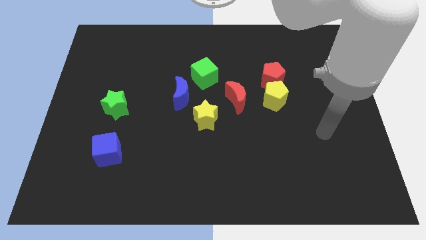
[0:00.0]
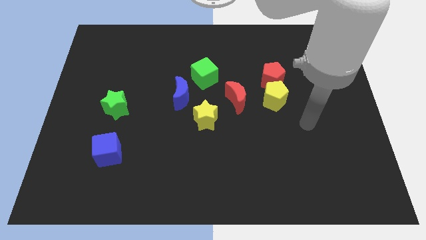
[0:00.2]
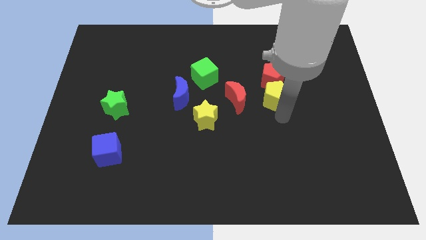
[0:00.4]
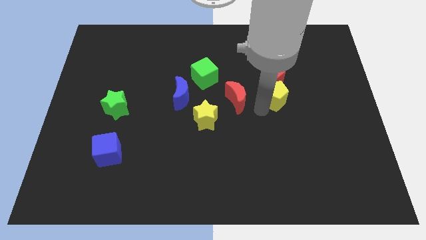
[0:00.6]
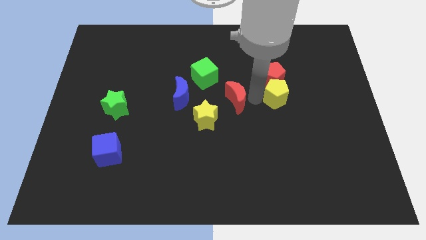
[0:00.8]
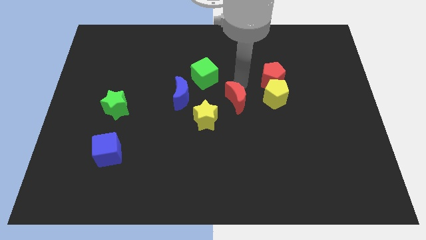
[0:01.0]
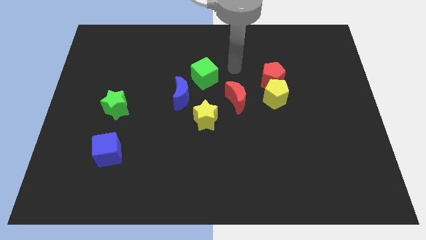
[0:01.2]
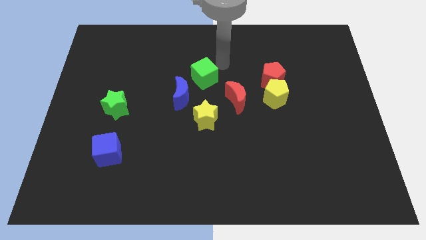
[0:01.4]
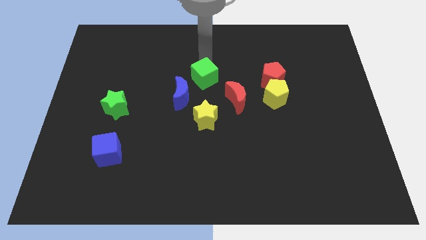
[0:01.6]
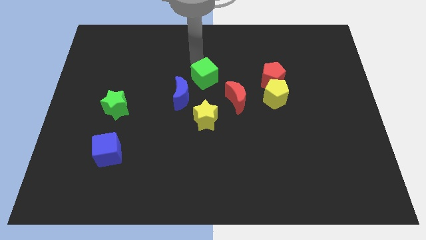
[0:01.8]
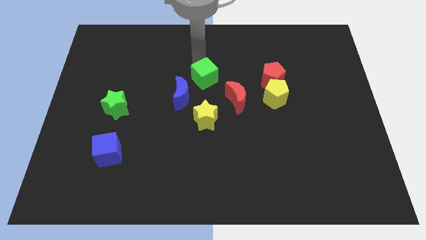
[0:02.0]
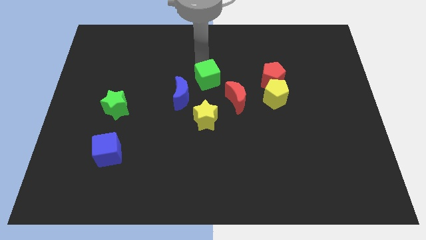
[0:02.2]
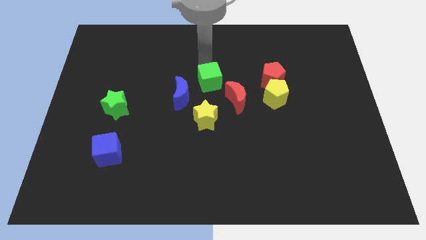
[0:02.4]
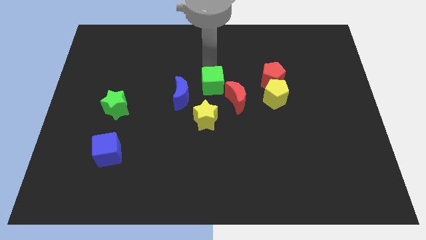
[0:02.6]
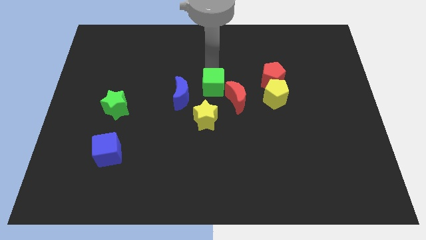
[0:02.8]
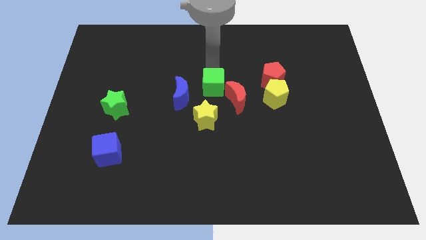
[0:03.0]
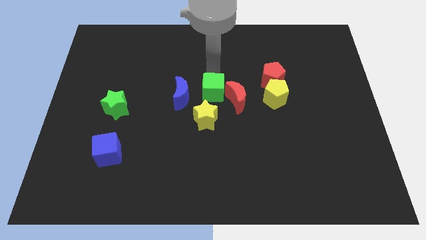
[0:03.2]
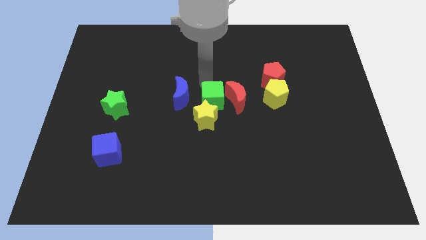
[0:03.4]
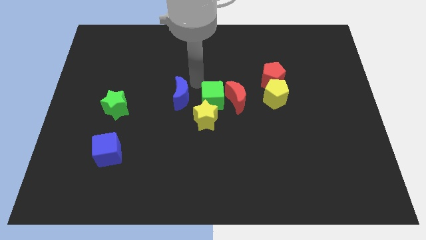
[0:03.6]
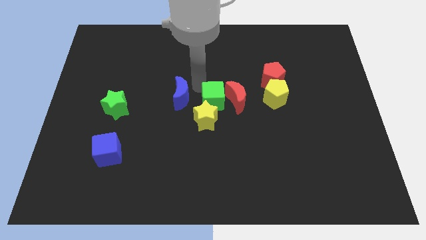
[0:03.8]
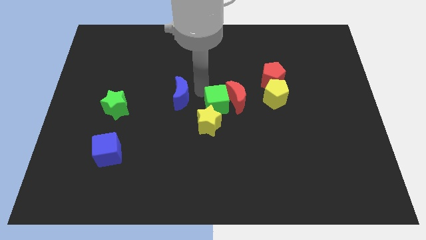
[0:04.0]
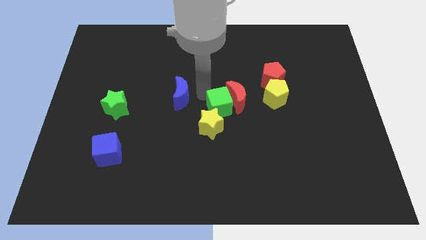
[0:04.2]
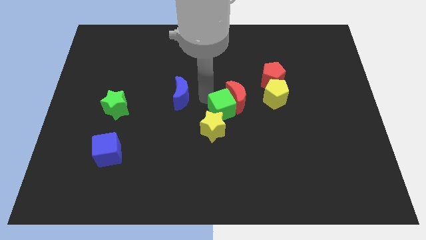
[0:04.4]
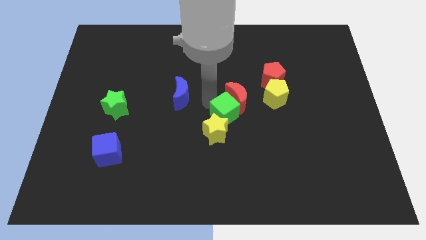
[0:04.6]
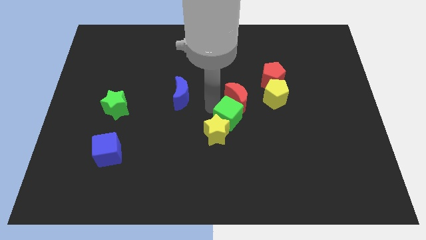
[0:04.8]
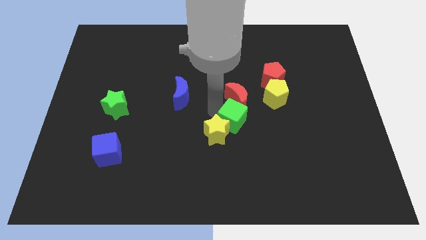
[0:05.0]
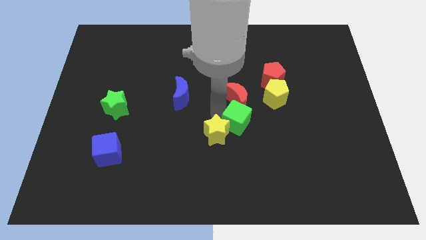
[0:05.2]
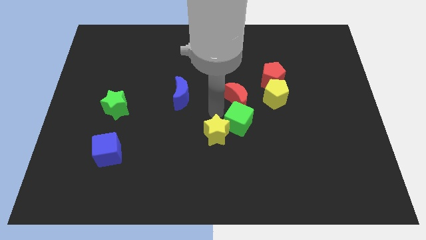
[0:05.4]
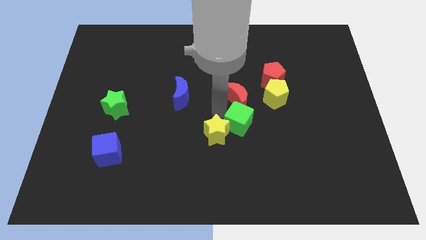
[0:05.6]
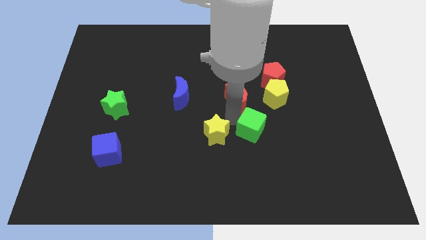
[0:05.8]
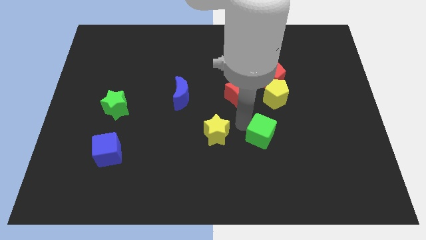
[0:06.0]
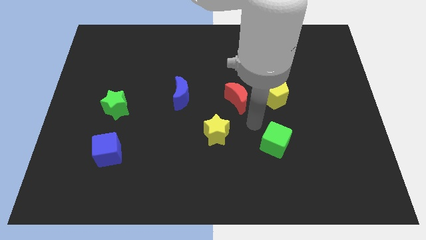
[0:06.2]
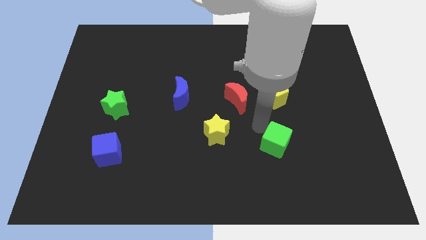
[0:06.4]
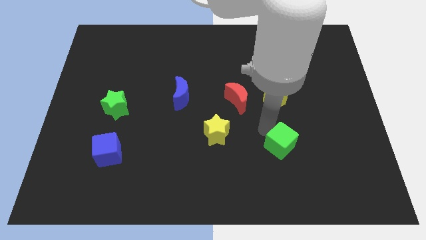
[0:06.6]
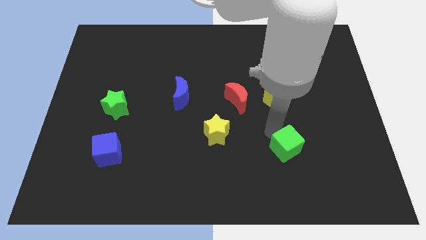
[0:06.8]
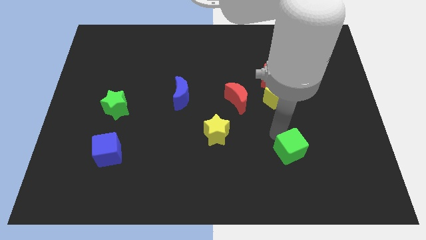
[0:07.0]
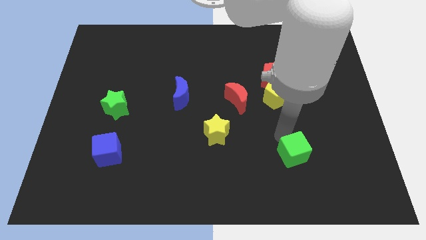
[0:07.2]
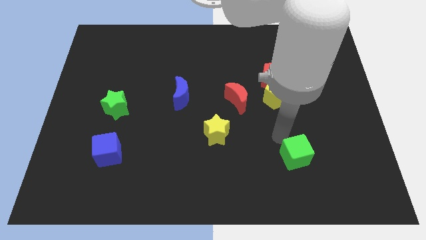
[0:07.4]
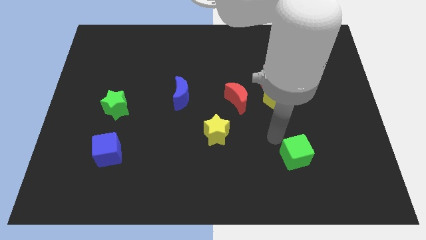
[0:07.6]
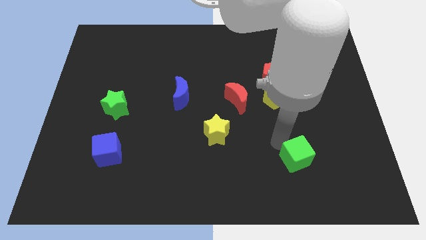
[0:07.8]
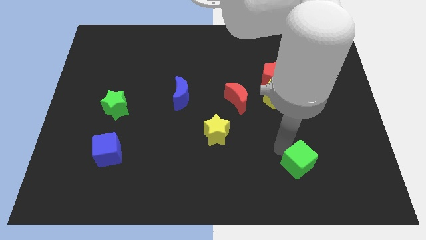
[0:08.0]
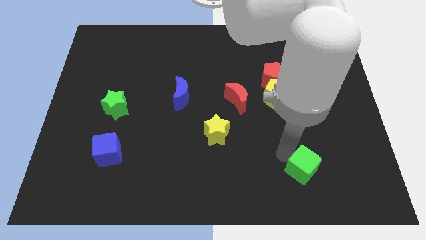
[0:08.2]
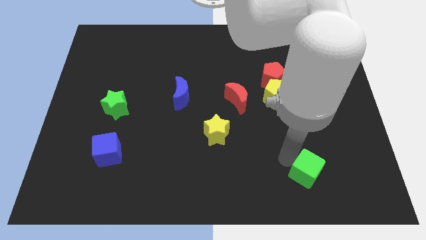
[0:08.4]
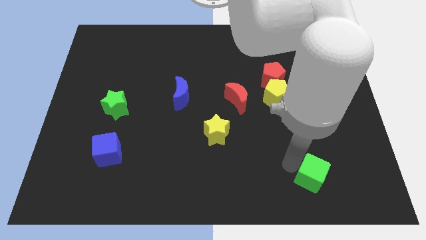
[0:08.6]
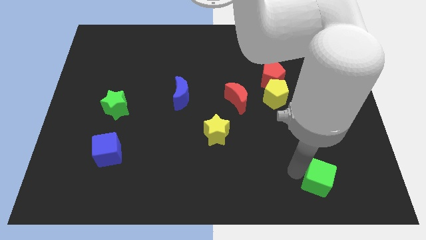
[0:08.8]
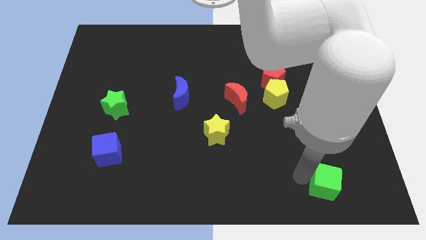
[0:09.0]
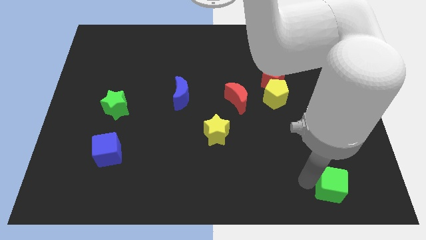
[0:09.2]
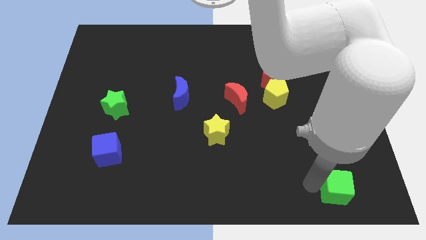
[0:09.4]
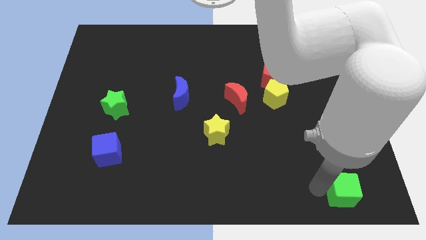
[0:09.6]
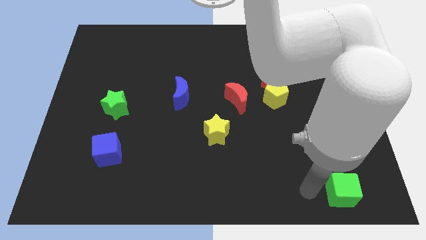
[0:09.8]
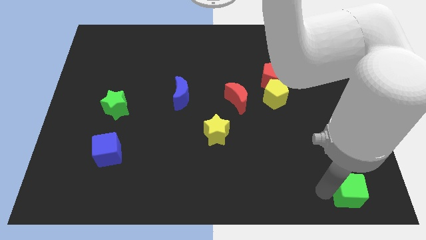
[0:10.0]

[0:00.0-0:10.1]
put the green cube to the bottom right

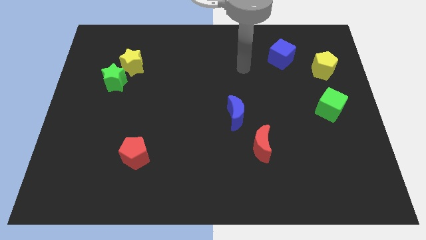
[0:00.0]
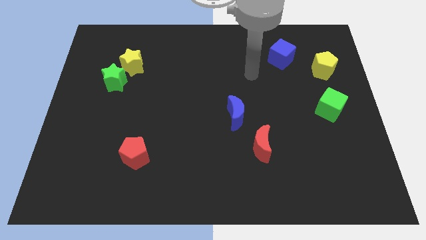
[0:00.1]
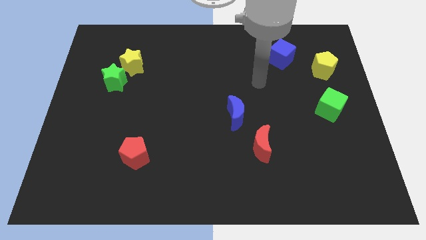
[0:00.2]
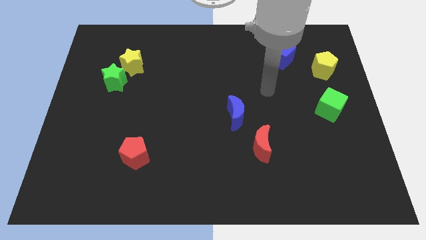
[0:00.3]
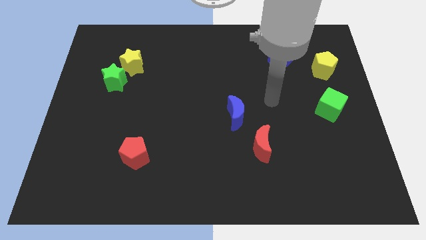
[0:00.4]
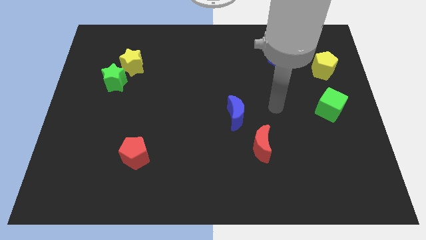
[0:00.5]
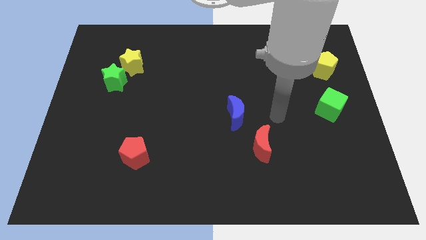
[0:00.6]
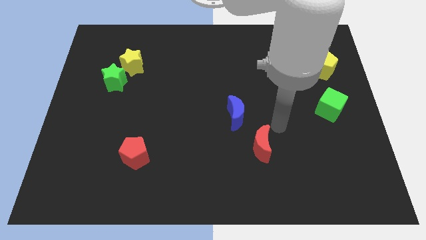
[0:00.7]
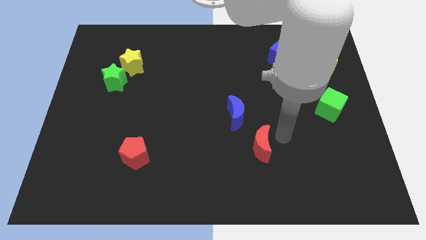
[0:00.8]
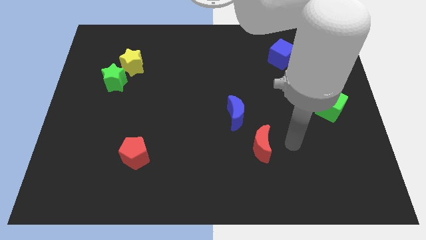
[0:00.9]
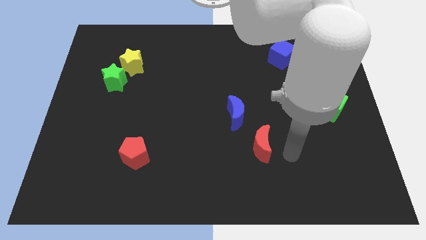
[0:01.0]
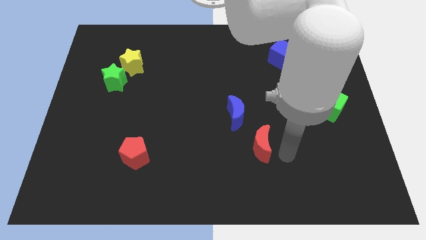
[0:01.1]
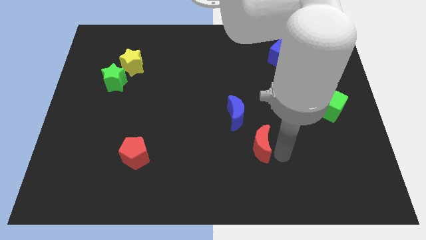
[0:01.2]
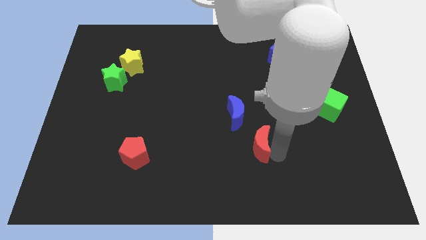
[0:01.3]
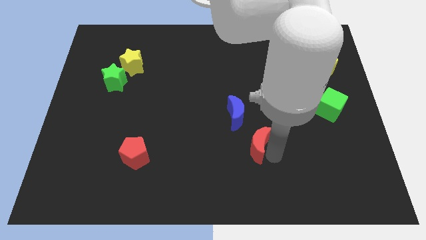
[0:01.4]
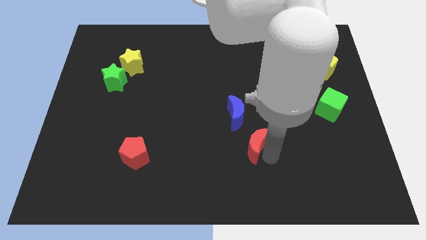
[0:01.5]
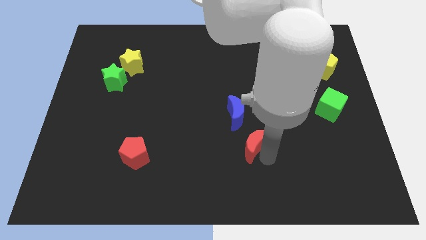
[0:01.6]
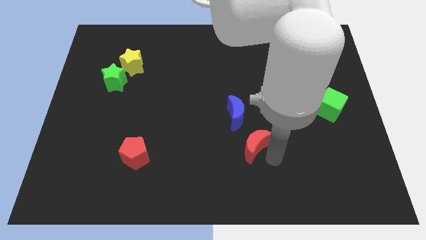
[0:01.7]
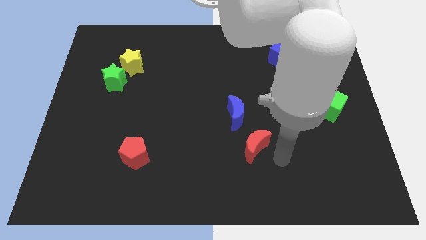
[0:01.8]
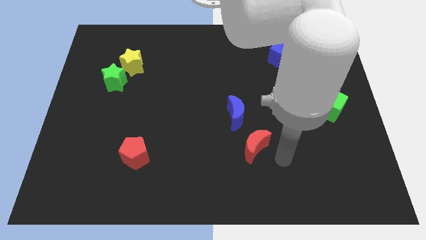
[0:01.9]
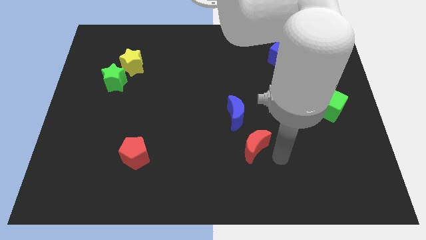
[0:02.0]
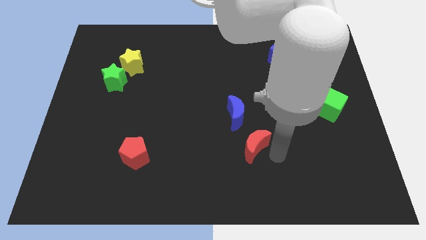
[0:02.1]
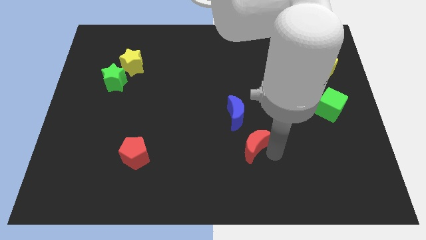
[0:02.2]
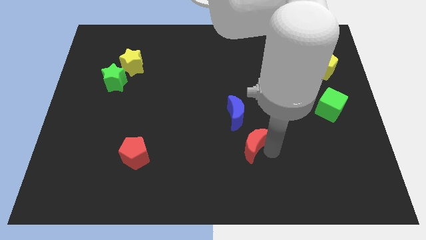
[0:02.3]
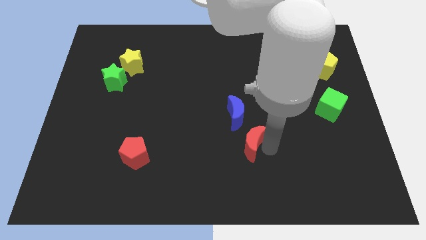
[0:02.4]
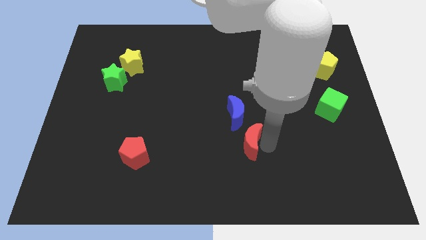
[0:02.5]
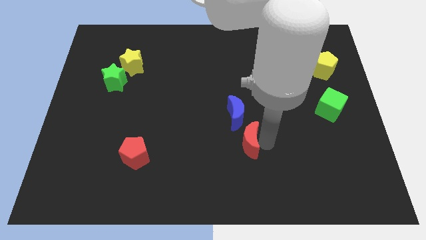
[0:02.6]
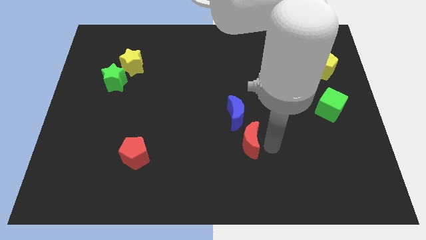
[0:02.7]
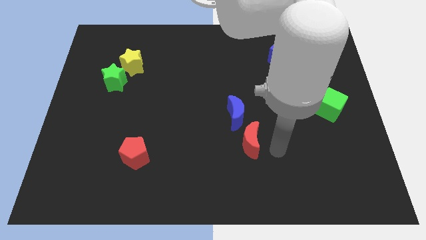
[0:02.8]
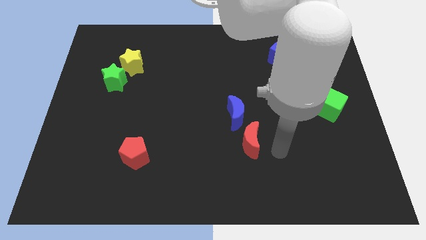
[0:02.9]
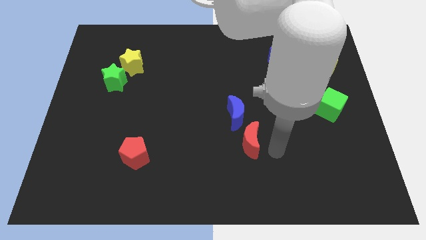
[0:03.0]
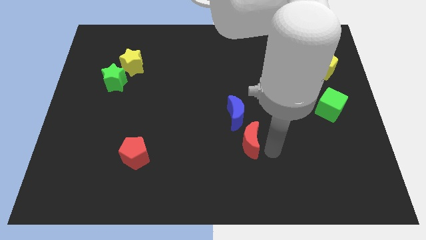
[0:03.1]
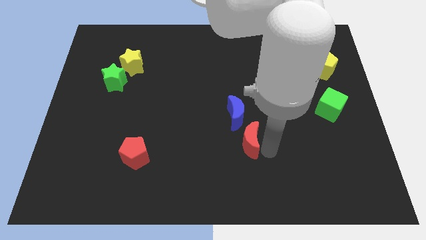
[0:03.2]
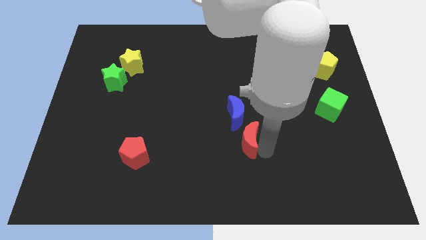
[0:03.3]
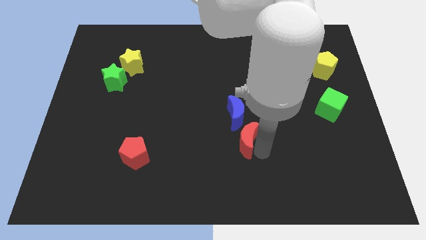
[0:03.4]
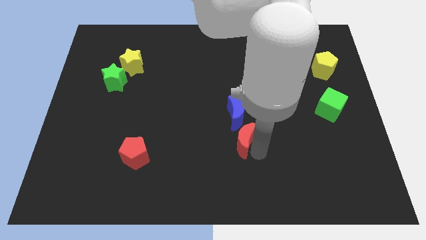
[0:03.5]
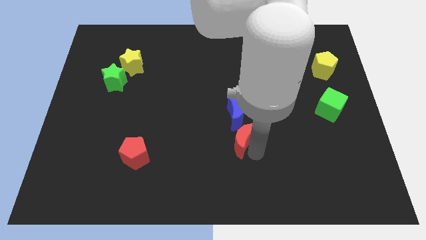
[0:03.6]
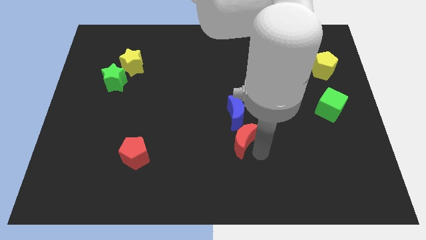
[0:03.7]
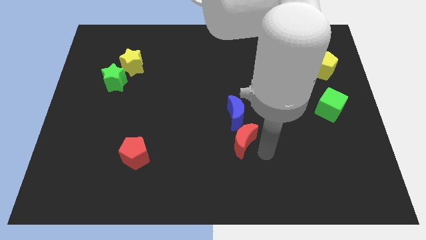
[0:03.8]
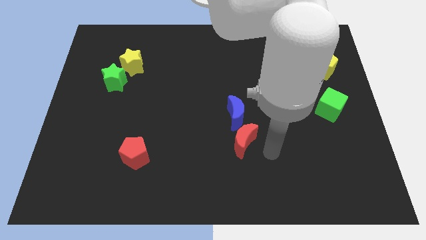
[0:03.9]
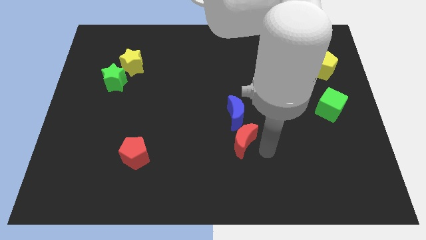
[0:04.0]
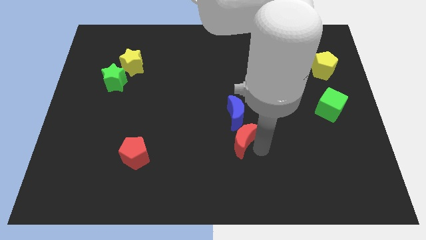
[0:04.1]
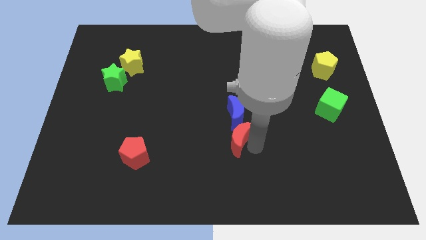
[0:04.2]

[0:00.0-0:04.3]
move the red moon to the middle of the board
